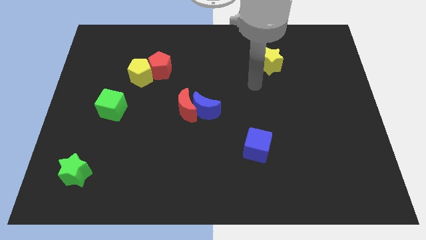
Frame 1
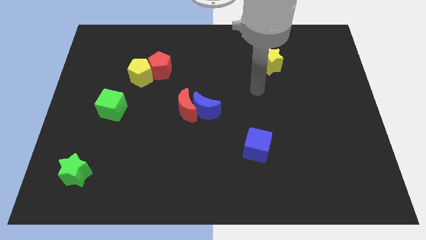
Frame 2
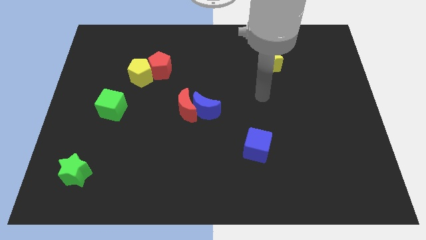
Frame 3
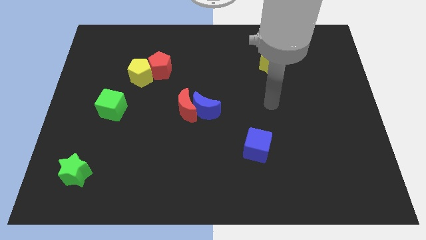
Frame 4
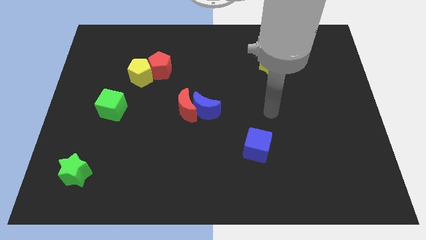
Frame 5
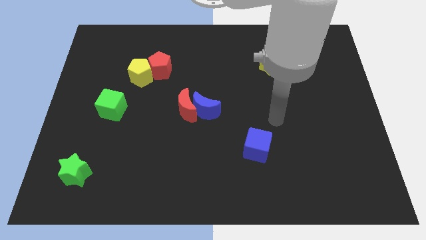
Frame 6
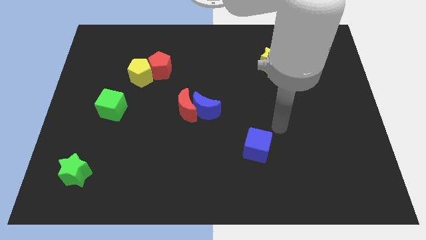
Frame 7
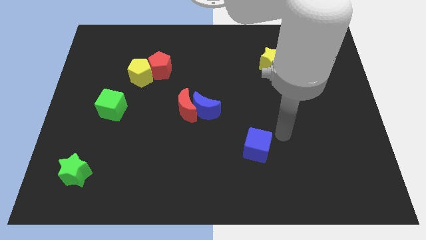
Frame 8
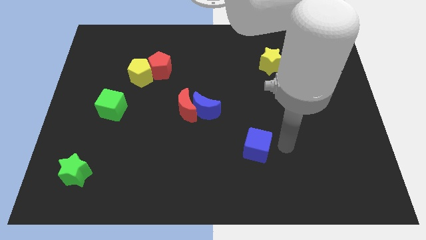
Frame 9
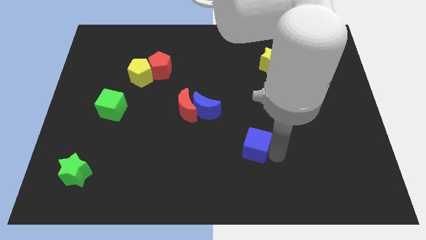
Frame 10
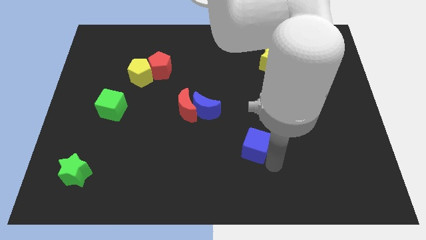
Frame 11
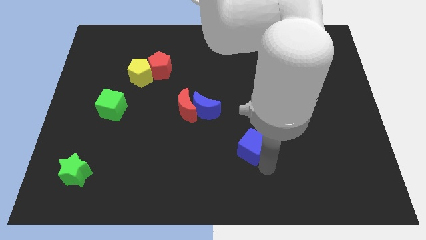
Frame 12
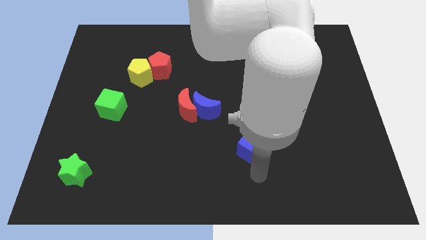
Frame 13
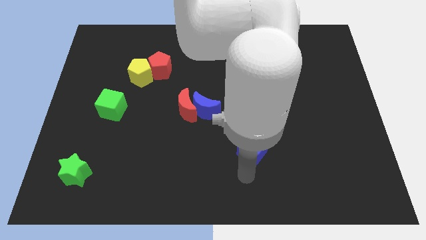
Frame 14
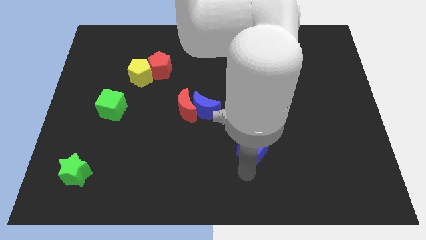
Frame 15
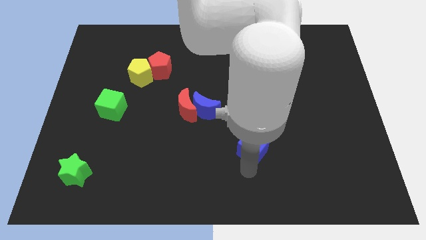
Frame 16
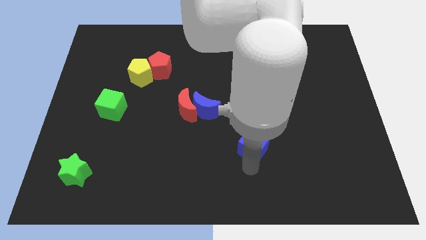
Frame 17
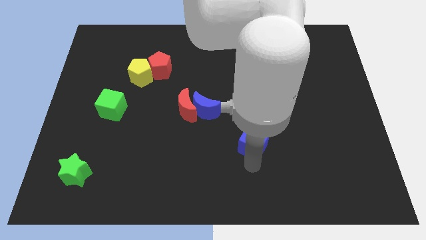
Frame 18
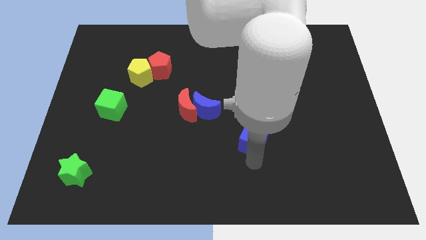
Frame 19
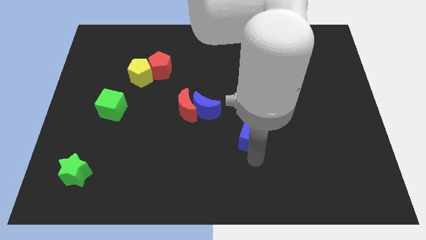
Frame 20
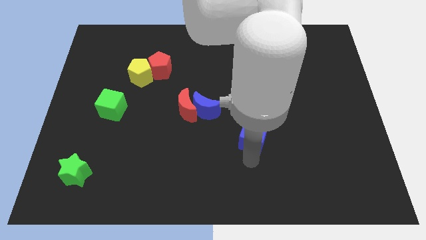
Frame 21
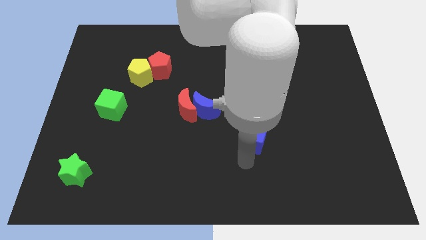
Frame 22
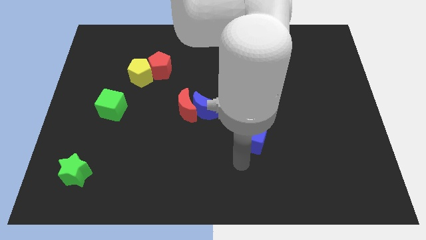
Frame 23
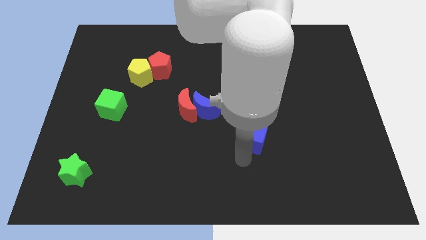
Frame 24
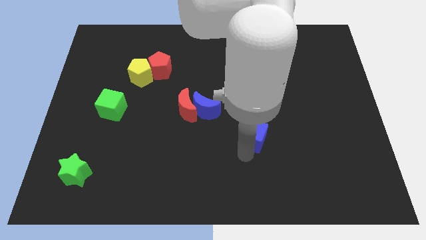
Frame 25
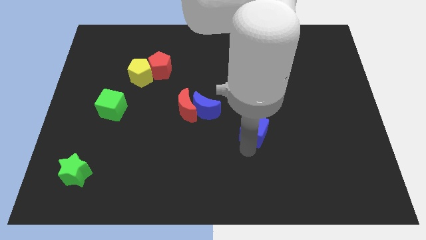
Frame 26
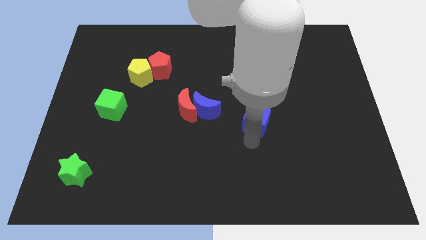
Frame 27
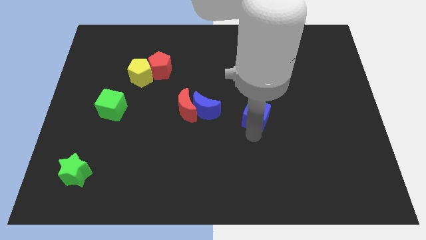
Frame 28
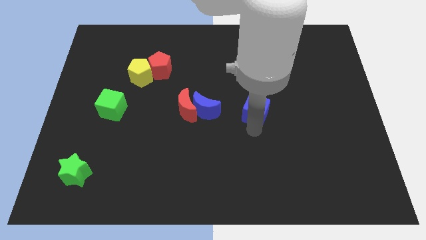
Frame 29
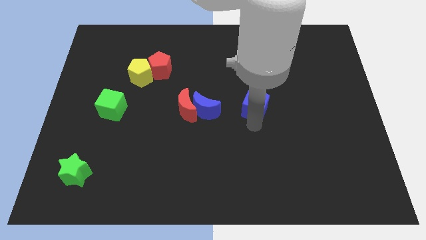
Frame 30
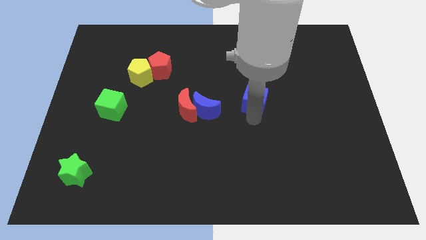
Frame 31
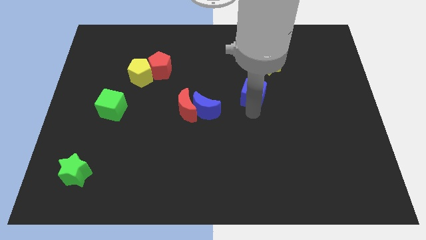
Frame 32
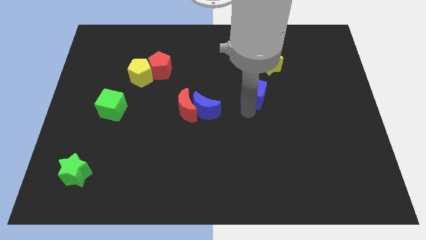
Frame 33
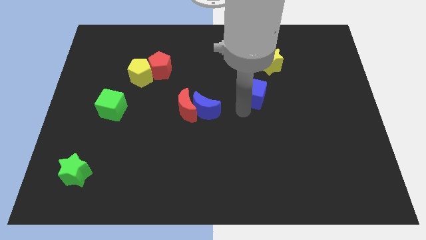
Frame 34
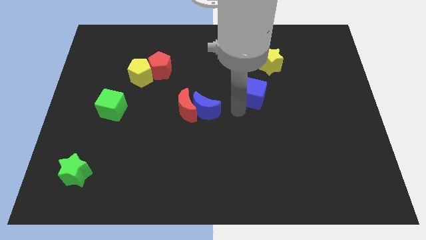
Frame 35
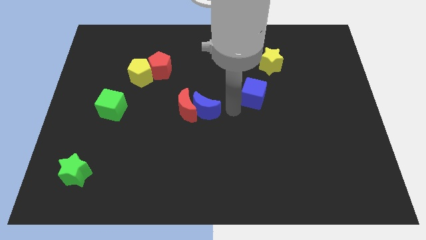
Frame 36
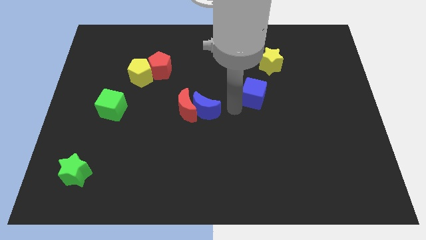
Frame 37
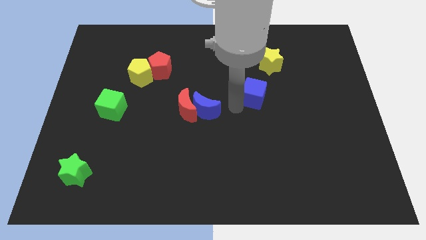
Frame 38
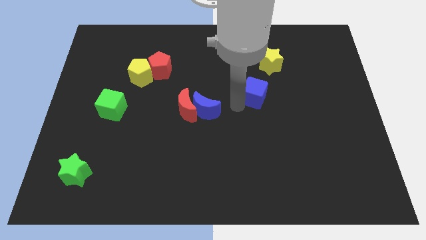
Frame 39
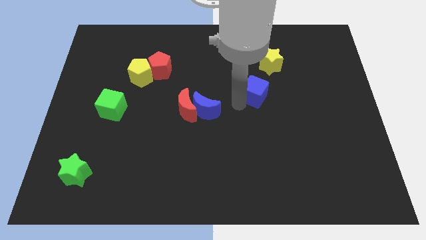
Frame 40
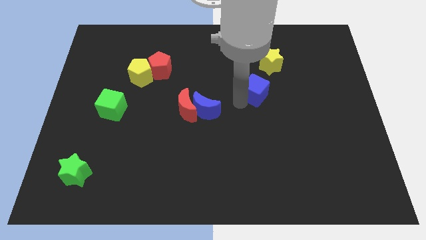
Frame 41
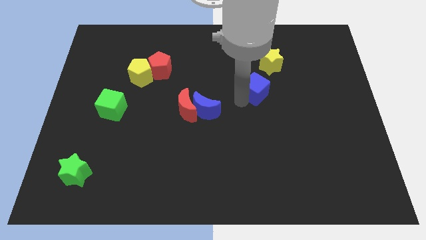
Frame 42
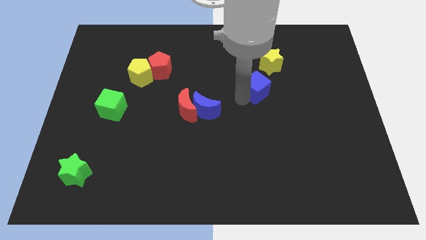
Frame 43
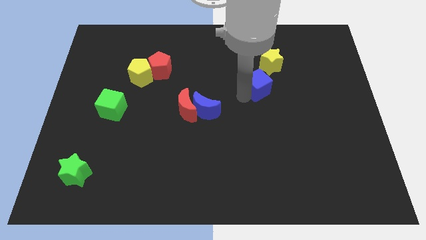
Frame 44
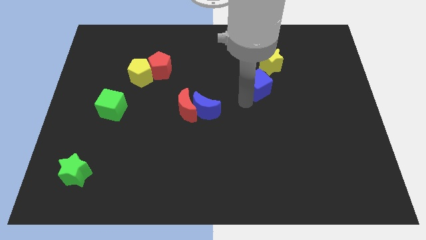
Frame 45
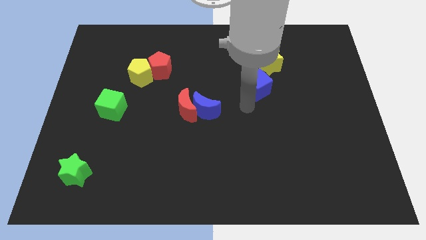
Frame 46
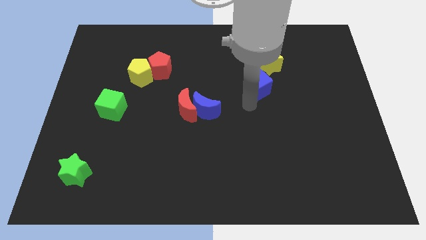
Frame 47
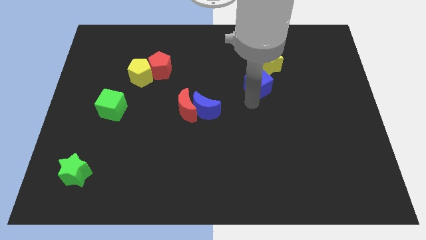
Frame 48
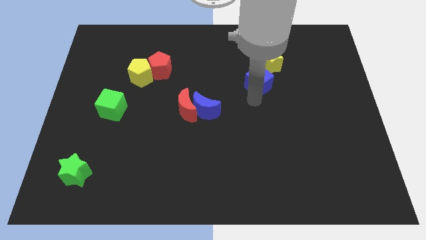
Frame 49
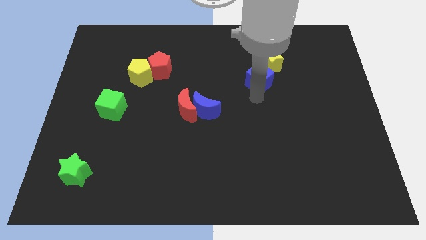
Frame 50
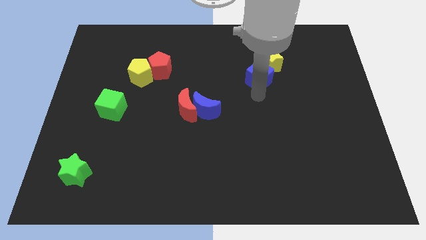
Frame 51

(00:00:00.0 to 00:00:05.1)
put the blue cube to the yellow star

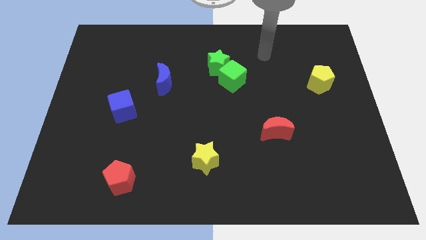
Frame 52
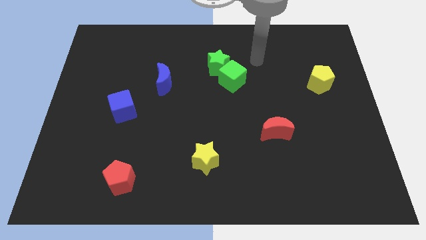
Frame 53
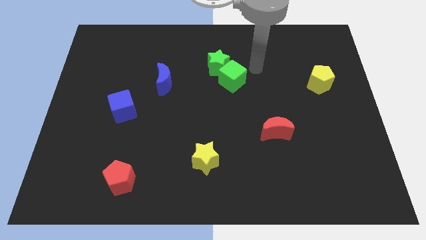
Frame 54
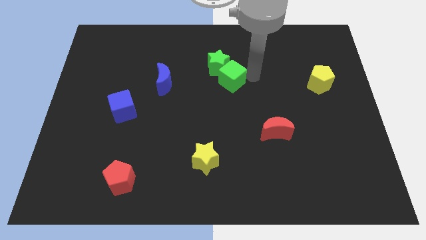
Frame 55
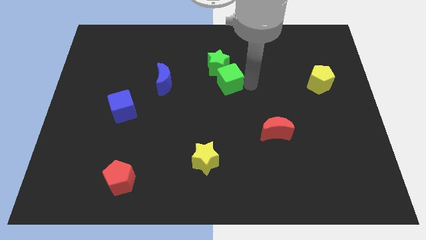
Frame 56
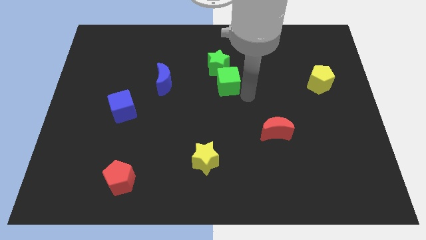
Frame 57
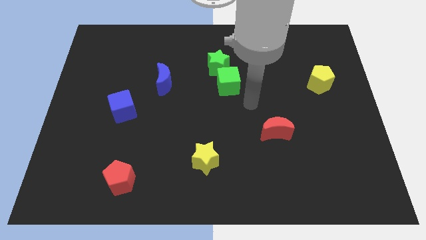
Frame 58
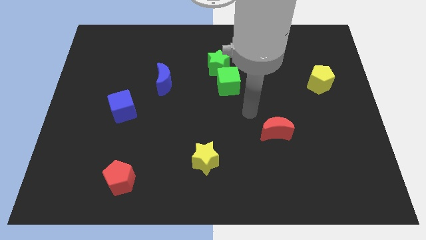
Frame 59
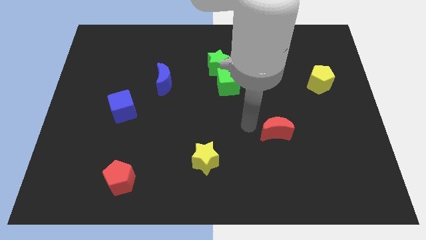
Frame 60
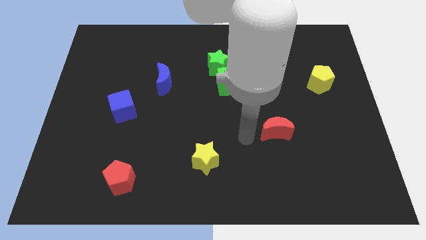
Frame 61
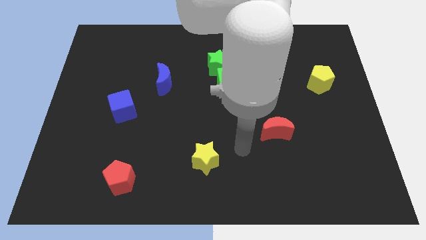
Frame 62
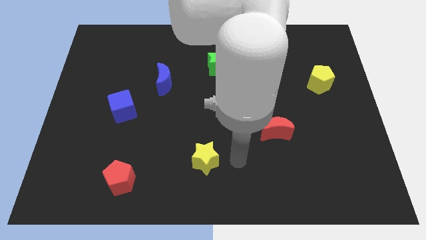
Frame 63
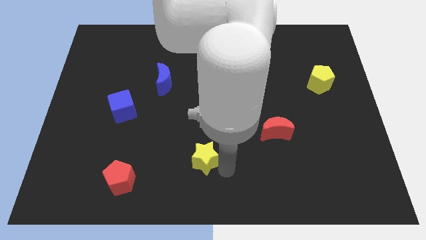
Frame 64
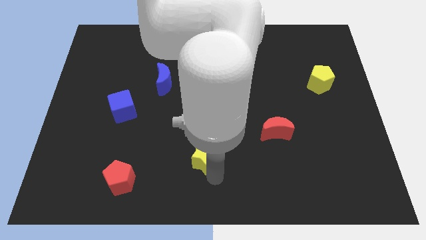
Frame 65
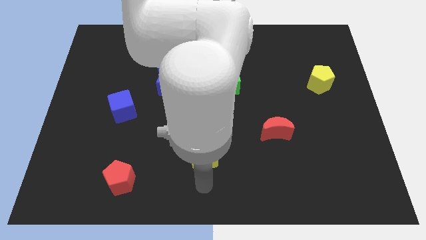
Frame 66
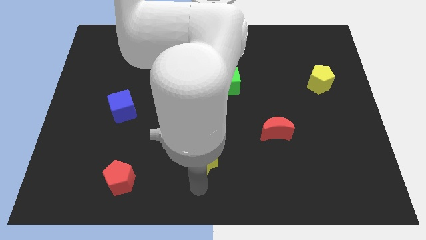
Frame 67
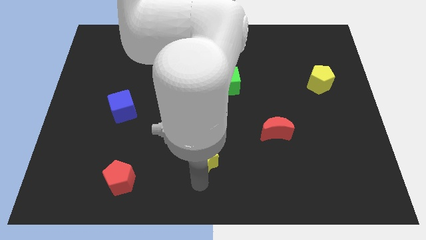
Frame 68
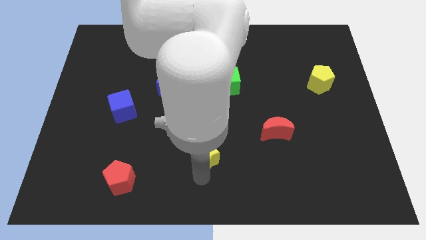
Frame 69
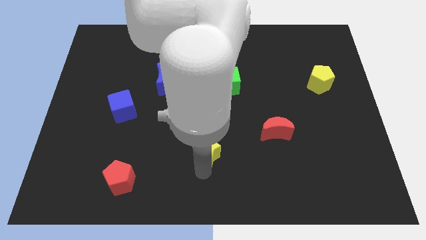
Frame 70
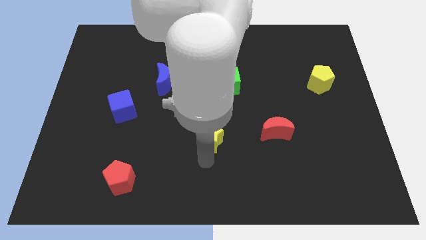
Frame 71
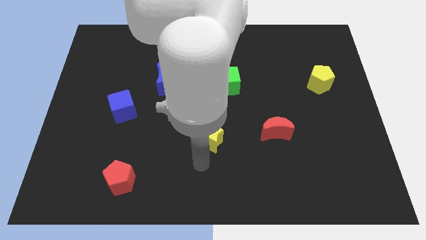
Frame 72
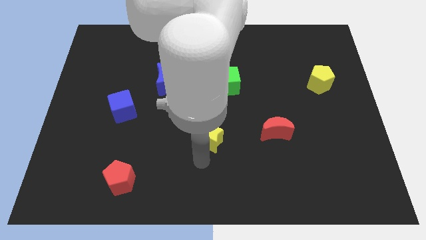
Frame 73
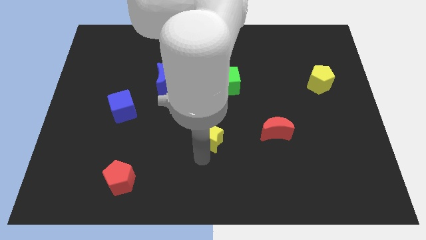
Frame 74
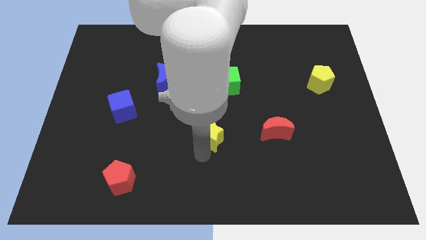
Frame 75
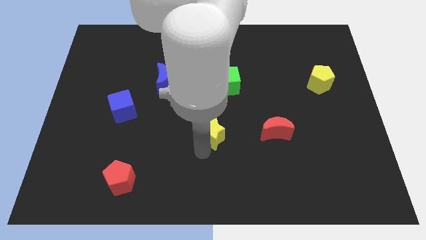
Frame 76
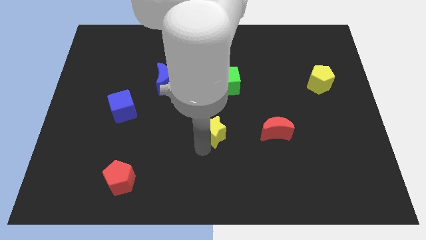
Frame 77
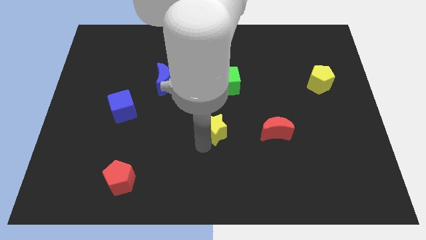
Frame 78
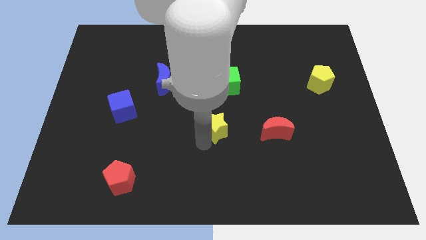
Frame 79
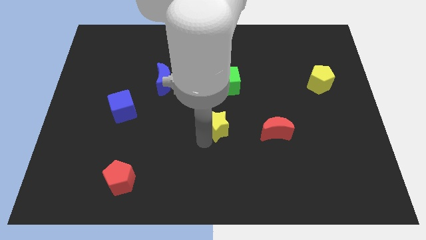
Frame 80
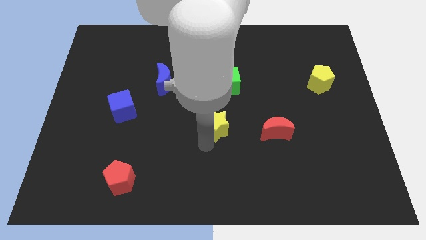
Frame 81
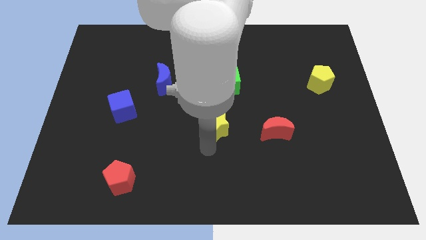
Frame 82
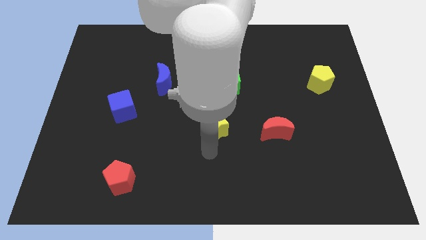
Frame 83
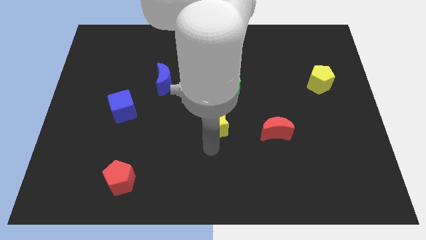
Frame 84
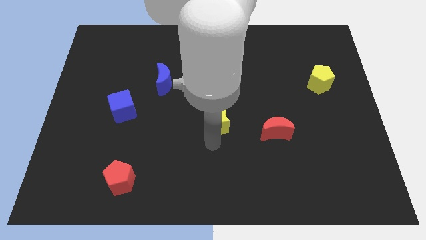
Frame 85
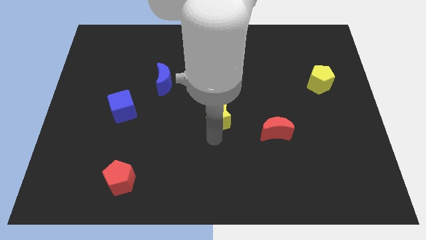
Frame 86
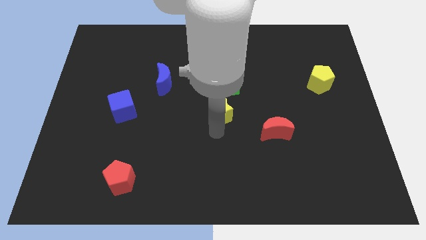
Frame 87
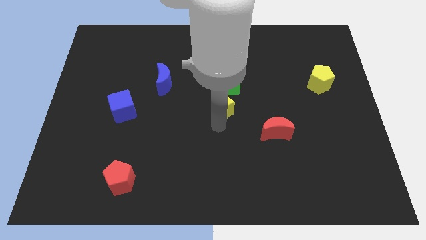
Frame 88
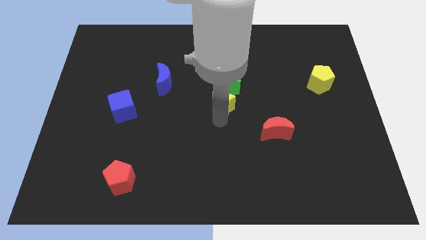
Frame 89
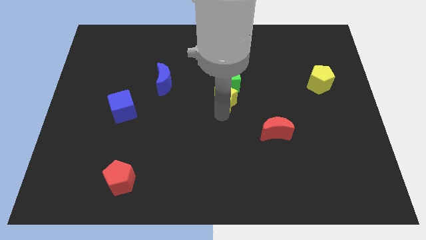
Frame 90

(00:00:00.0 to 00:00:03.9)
push the yellow star close to the green cube
